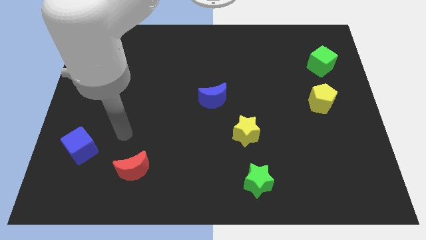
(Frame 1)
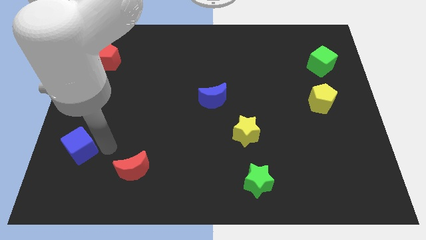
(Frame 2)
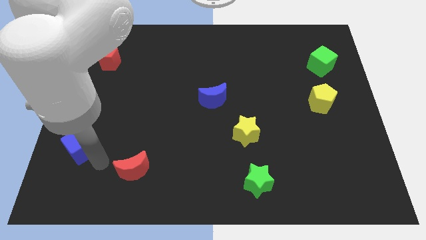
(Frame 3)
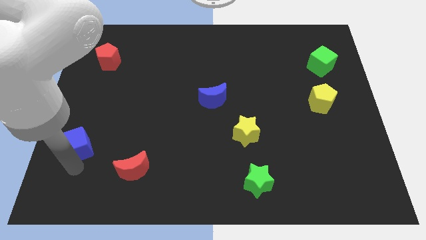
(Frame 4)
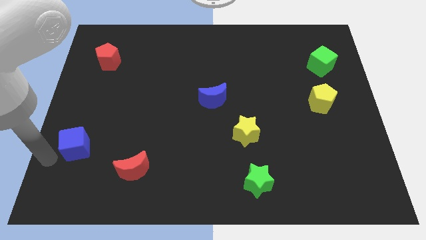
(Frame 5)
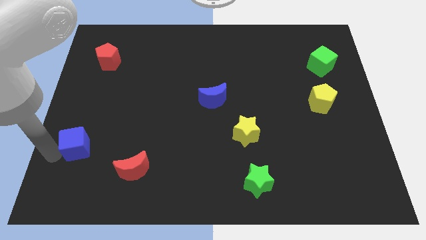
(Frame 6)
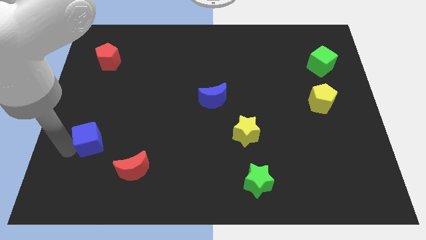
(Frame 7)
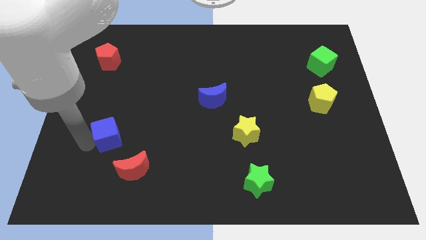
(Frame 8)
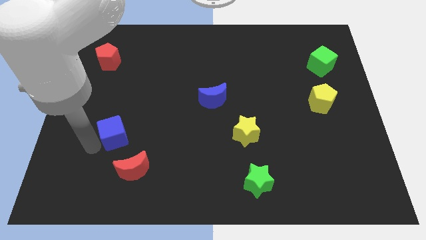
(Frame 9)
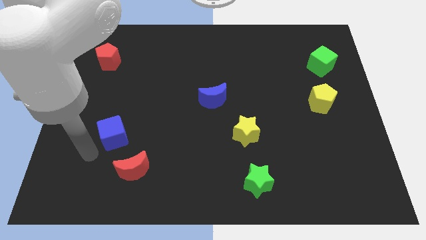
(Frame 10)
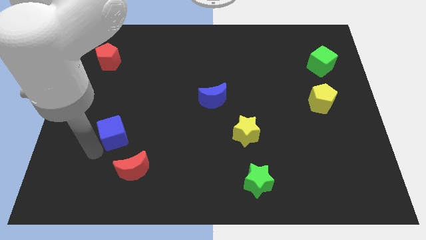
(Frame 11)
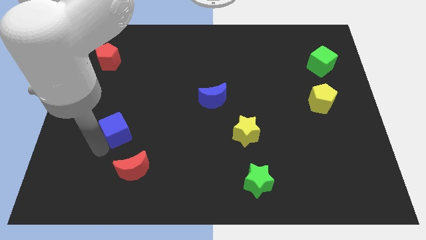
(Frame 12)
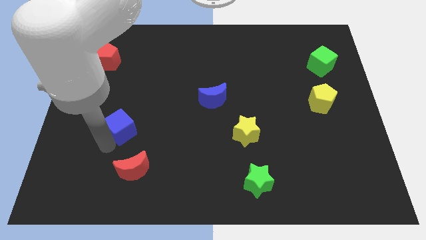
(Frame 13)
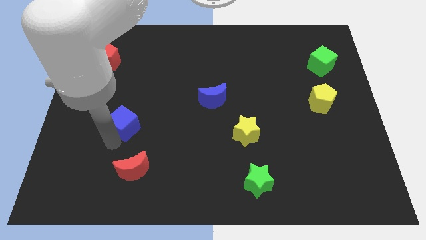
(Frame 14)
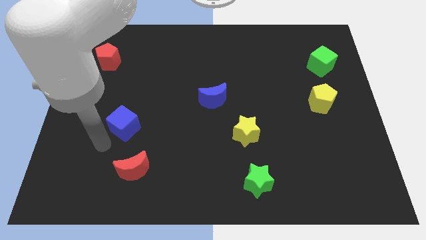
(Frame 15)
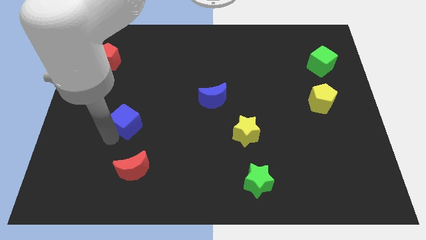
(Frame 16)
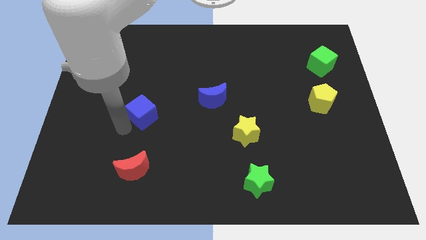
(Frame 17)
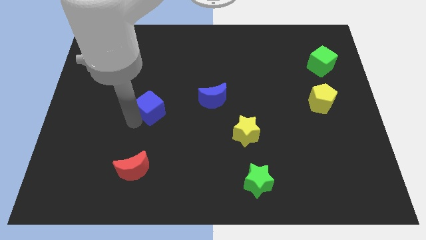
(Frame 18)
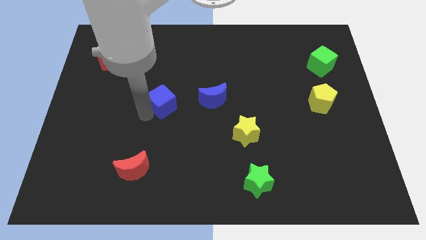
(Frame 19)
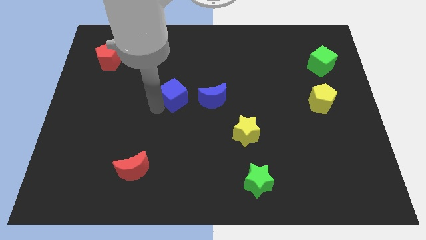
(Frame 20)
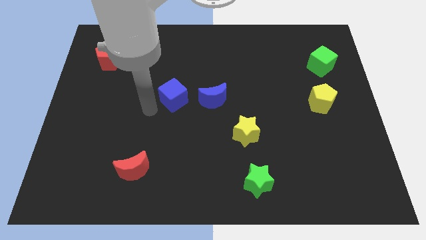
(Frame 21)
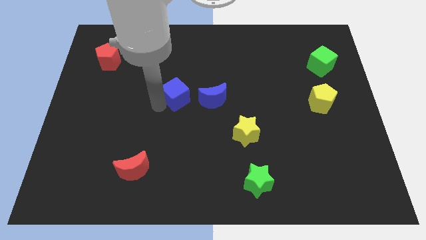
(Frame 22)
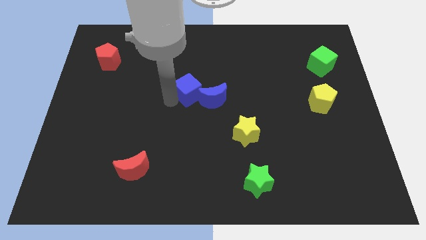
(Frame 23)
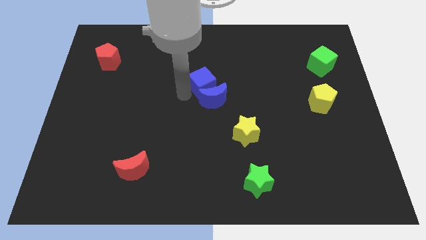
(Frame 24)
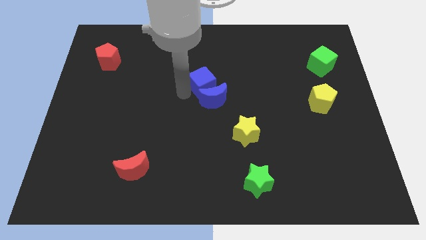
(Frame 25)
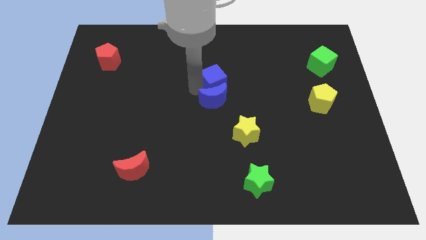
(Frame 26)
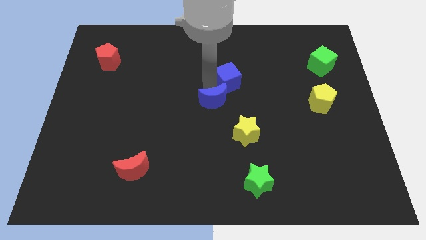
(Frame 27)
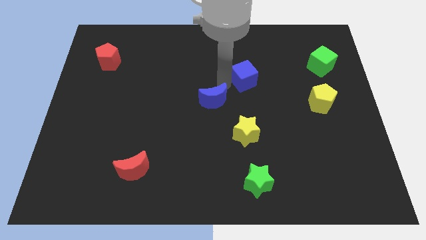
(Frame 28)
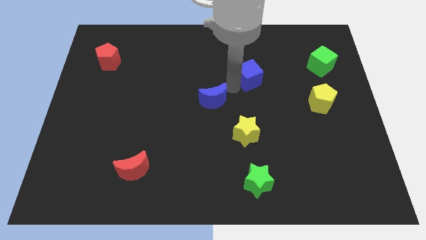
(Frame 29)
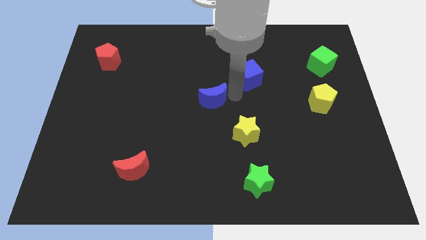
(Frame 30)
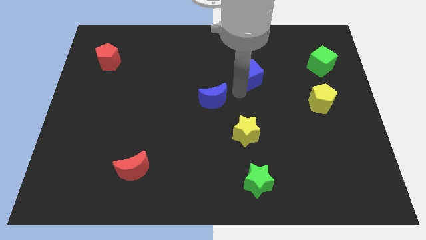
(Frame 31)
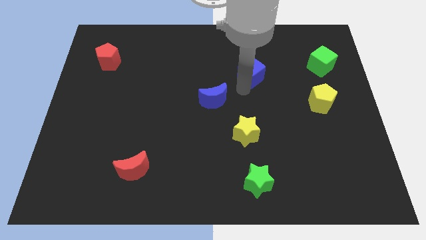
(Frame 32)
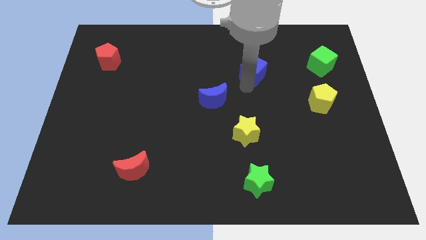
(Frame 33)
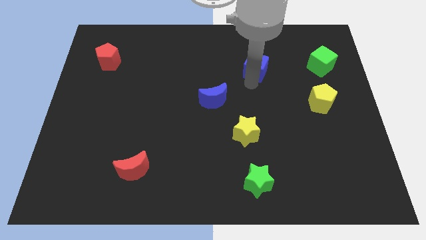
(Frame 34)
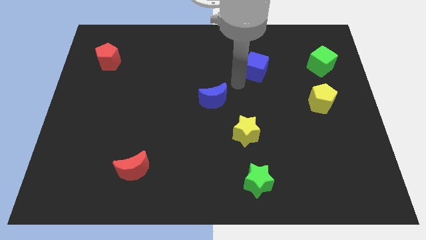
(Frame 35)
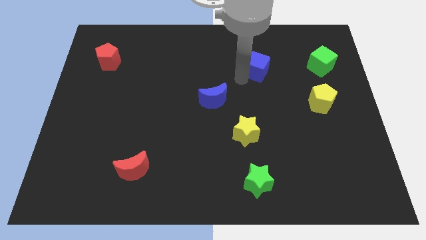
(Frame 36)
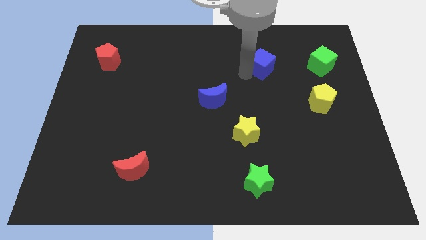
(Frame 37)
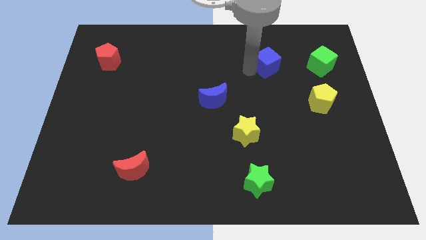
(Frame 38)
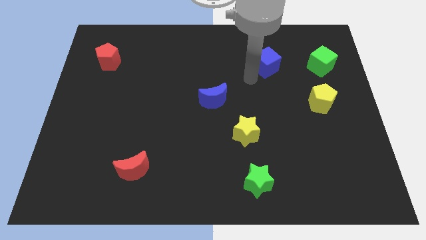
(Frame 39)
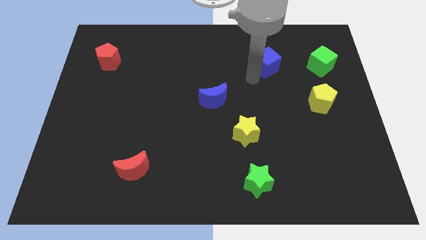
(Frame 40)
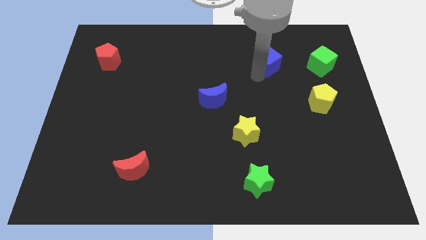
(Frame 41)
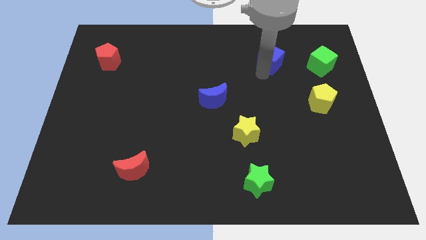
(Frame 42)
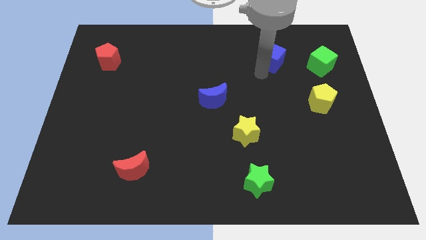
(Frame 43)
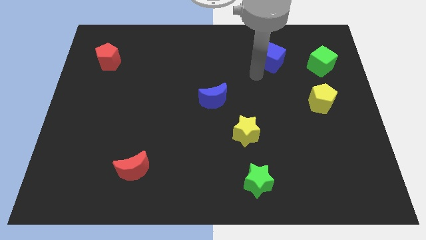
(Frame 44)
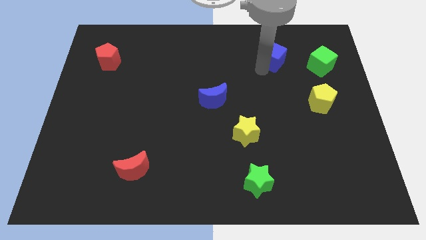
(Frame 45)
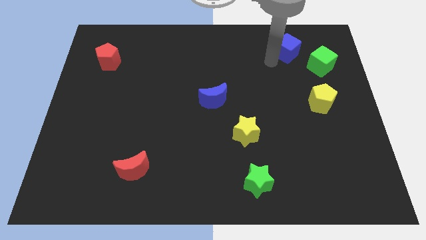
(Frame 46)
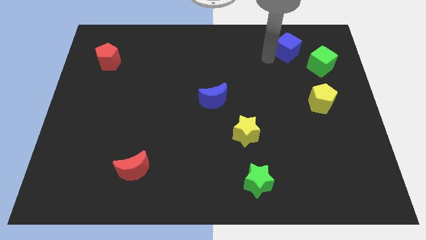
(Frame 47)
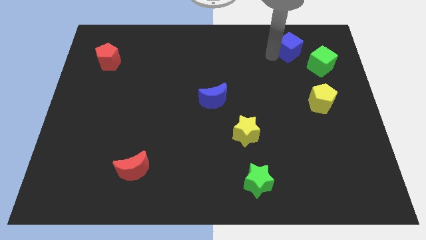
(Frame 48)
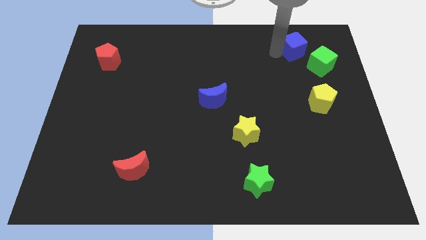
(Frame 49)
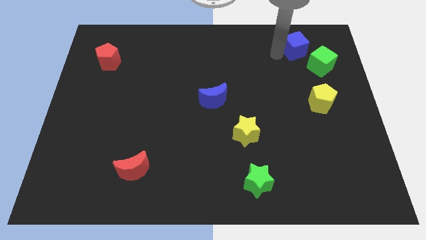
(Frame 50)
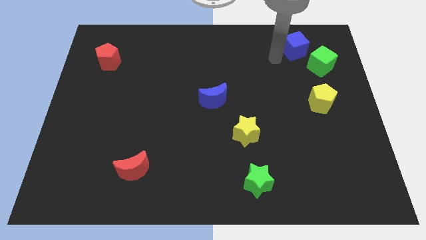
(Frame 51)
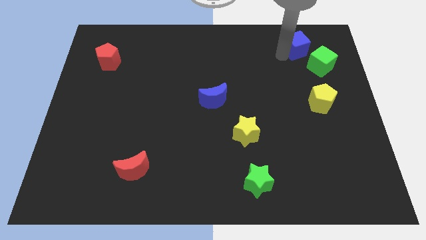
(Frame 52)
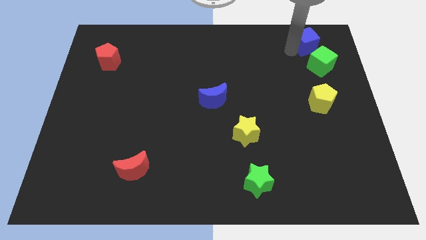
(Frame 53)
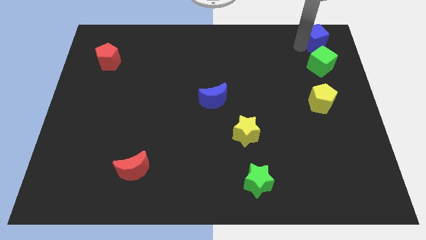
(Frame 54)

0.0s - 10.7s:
put the blue cube to the top right corner

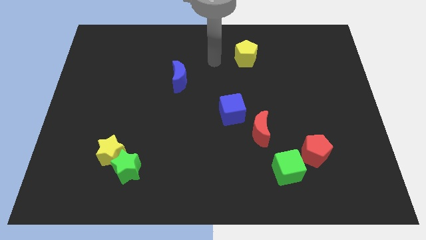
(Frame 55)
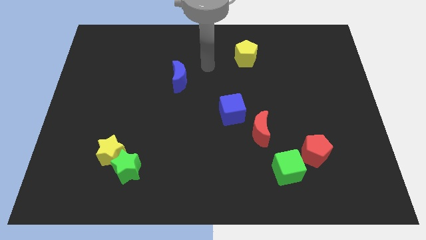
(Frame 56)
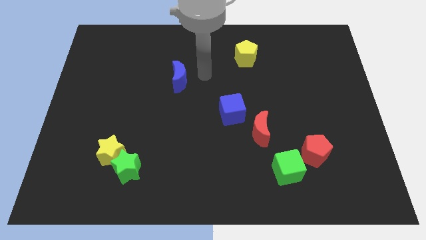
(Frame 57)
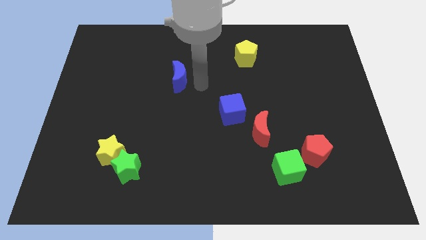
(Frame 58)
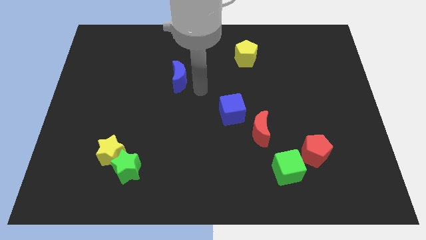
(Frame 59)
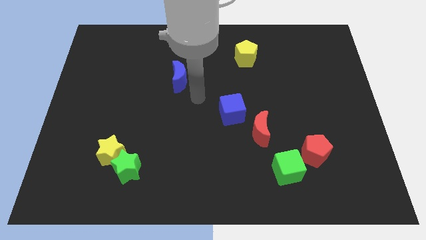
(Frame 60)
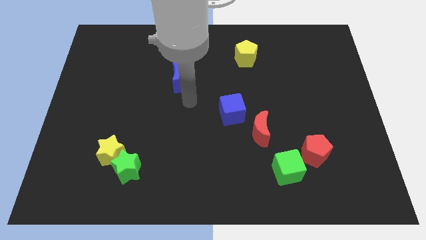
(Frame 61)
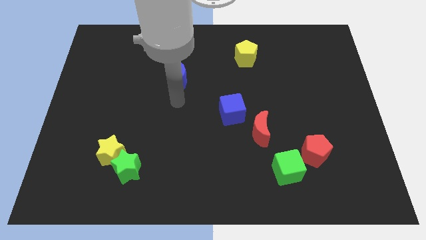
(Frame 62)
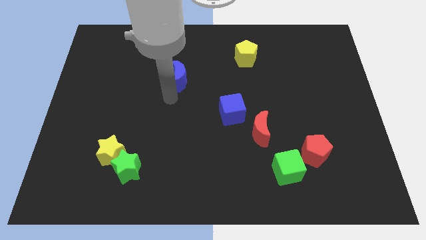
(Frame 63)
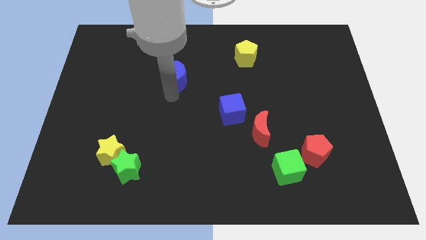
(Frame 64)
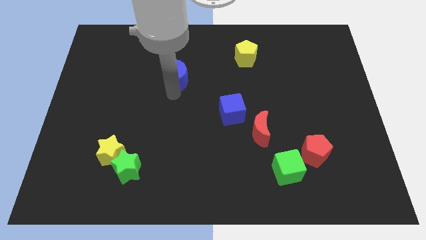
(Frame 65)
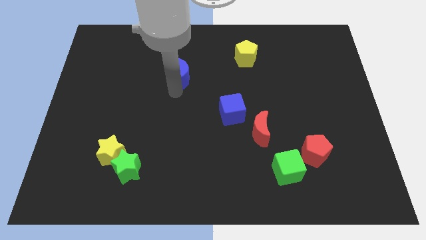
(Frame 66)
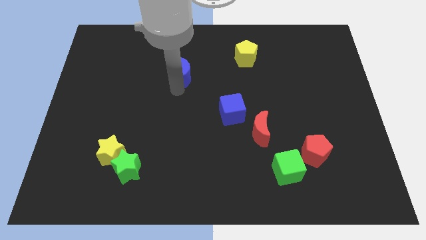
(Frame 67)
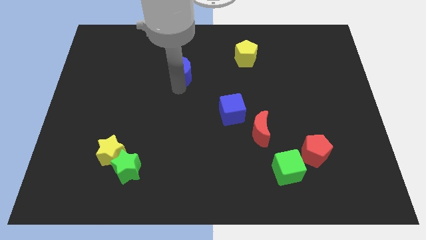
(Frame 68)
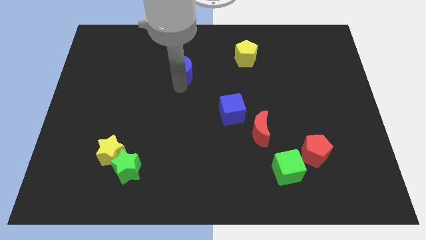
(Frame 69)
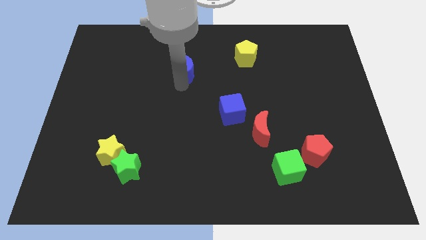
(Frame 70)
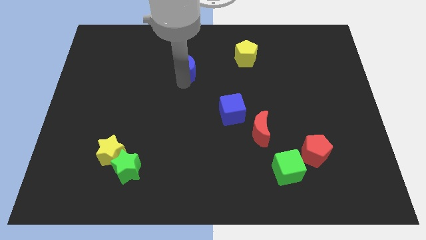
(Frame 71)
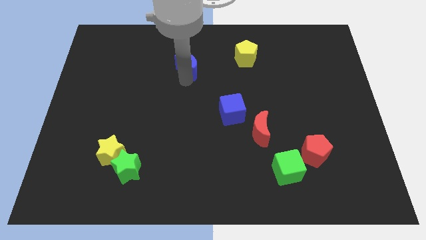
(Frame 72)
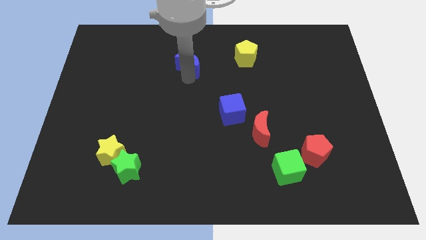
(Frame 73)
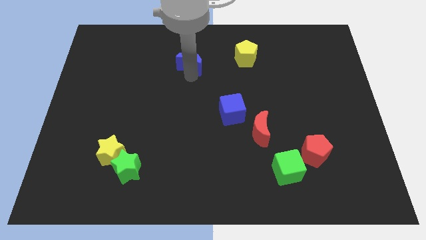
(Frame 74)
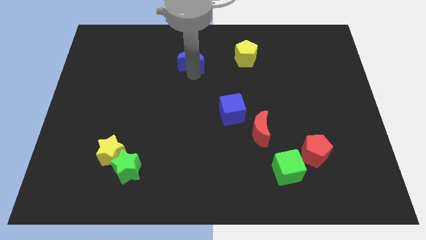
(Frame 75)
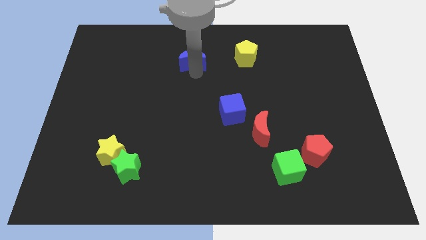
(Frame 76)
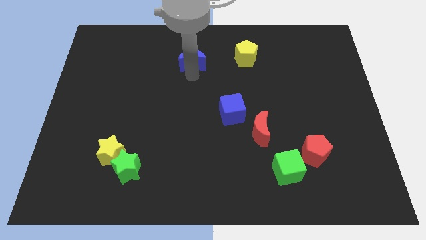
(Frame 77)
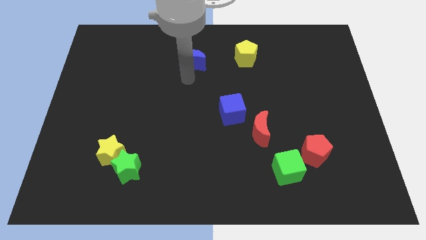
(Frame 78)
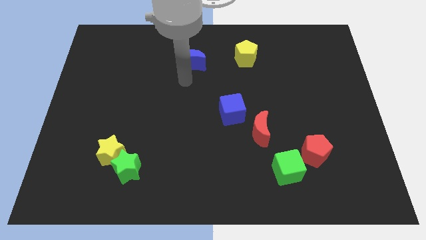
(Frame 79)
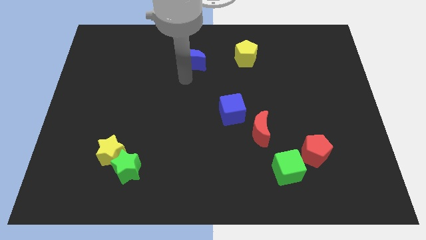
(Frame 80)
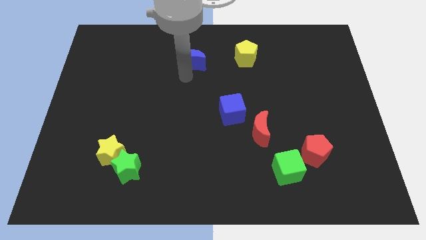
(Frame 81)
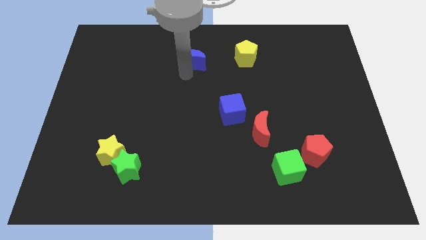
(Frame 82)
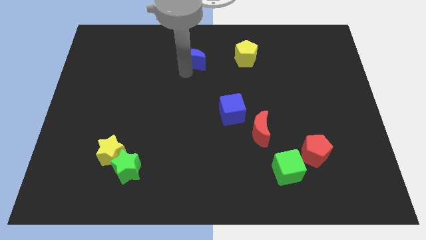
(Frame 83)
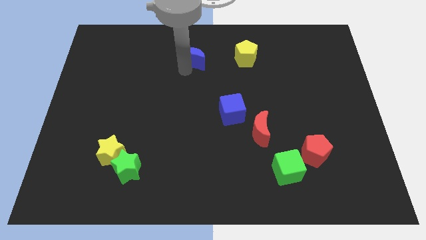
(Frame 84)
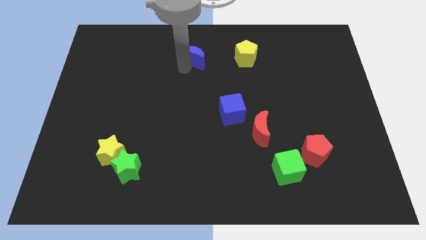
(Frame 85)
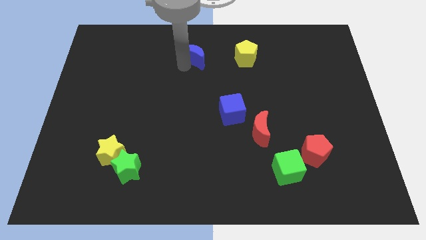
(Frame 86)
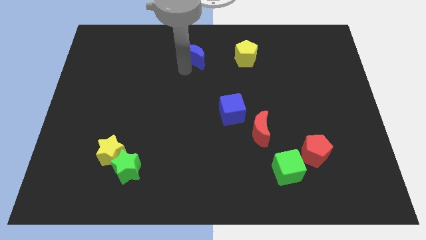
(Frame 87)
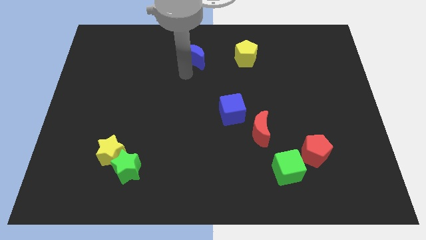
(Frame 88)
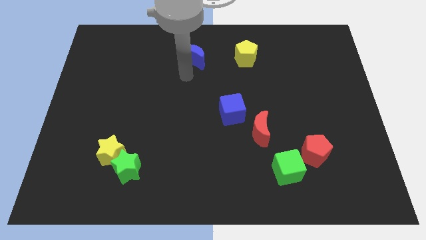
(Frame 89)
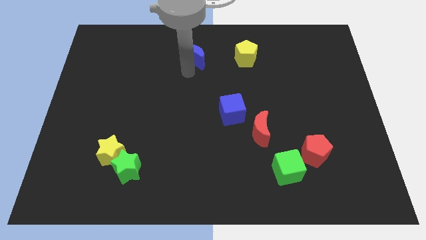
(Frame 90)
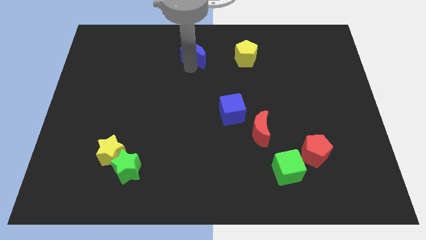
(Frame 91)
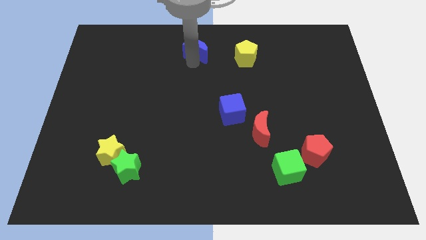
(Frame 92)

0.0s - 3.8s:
push the blue moon to the top side
